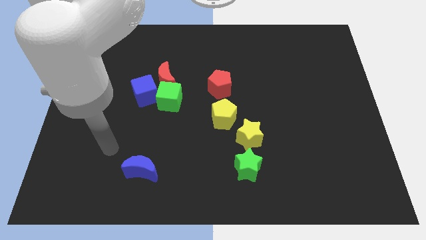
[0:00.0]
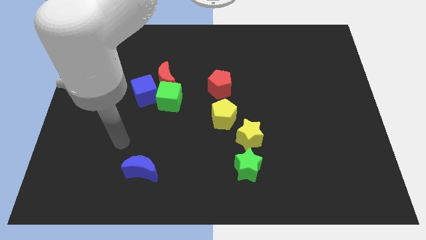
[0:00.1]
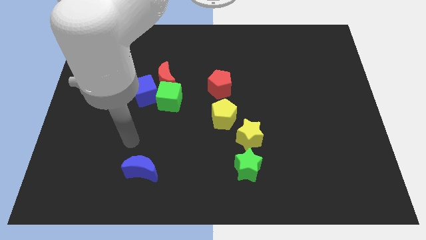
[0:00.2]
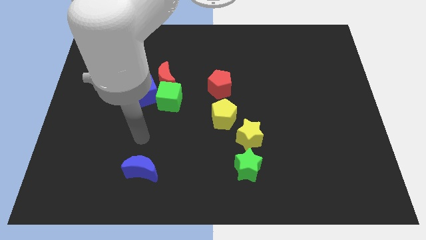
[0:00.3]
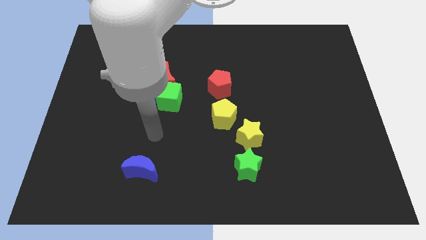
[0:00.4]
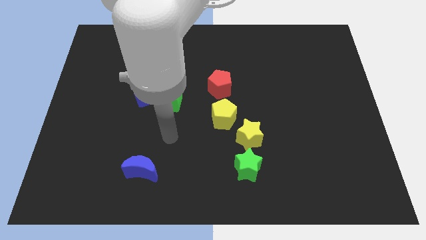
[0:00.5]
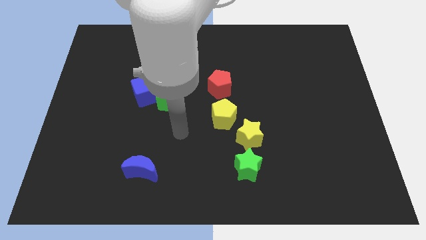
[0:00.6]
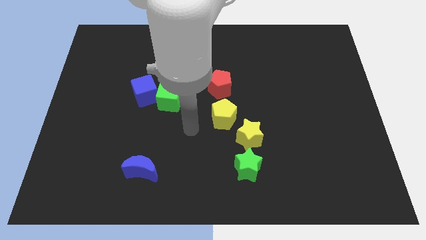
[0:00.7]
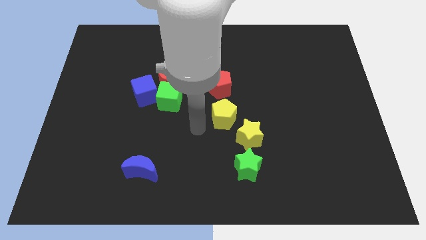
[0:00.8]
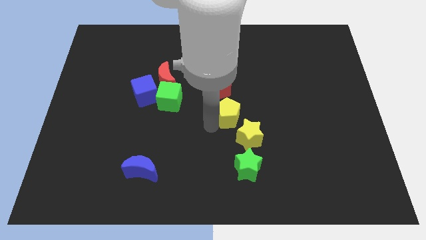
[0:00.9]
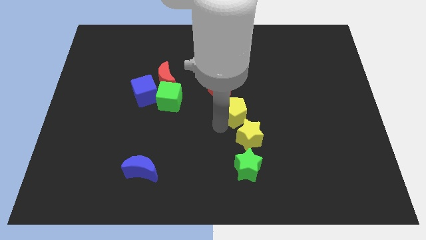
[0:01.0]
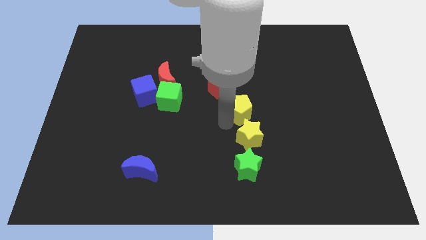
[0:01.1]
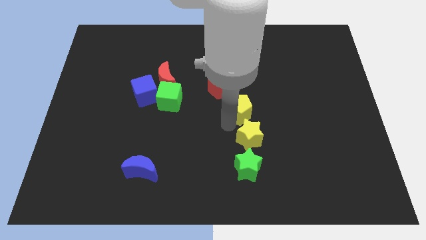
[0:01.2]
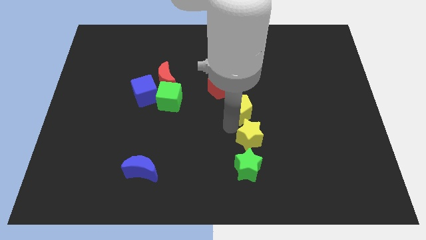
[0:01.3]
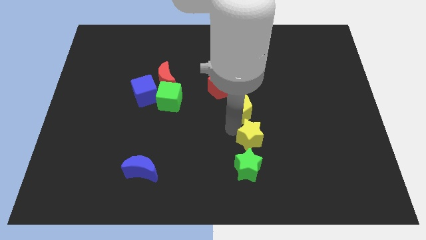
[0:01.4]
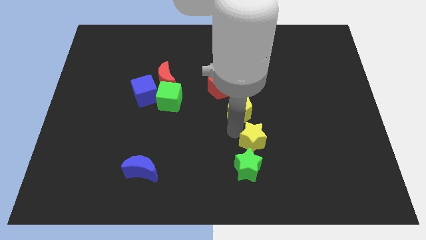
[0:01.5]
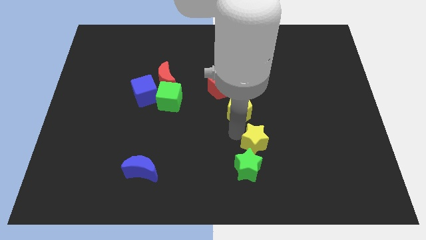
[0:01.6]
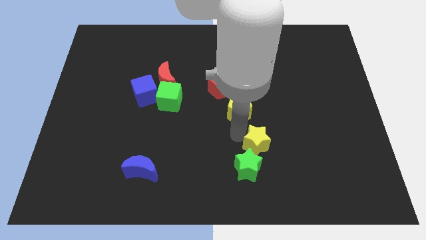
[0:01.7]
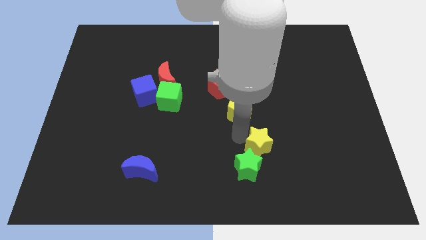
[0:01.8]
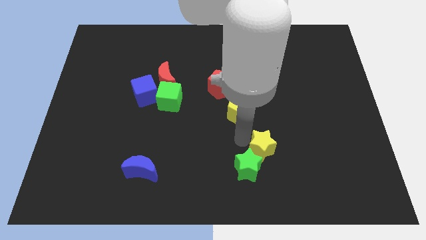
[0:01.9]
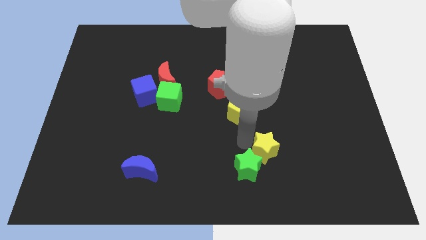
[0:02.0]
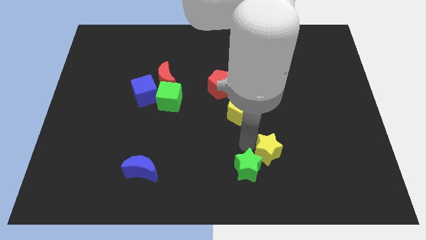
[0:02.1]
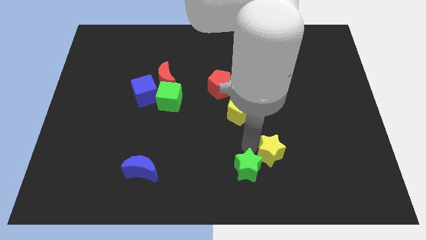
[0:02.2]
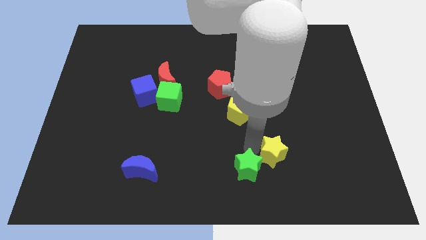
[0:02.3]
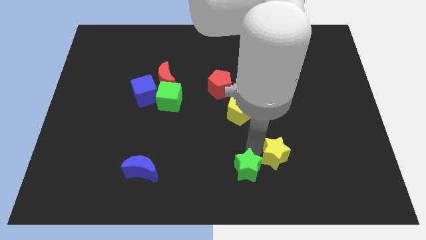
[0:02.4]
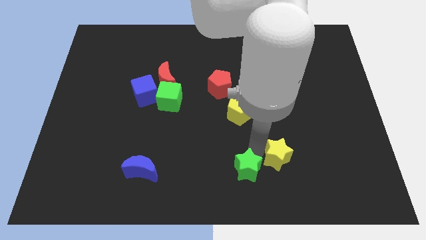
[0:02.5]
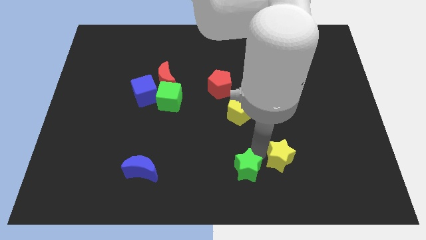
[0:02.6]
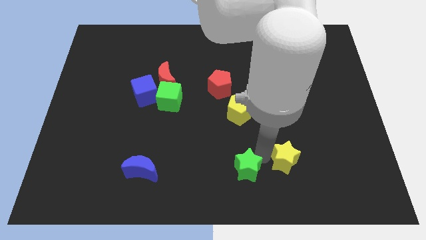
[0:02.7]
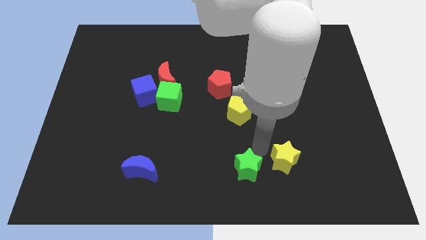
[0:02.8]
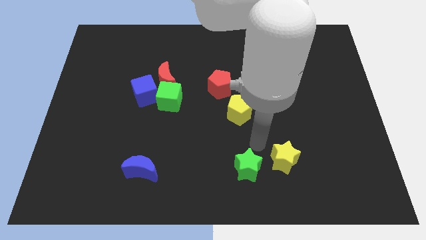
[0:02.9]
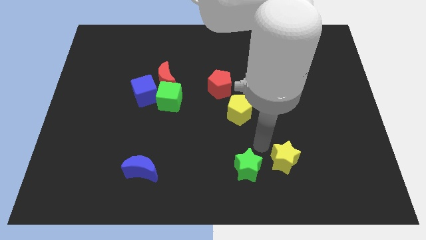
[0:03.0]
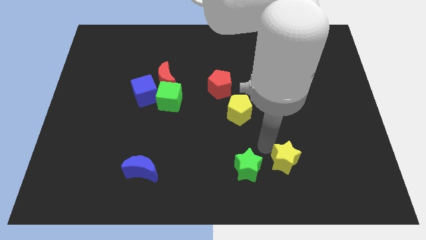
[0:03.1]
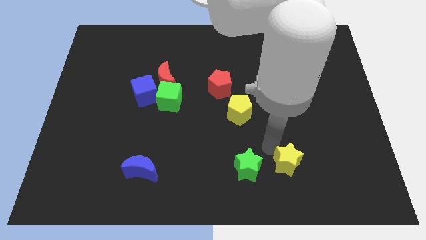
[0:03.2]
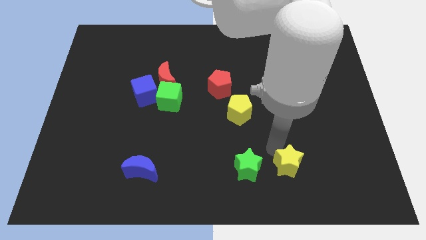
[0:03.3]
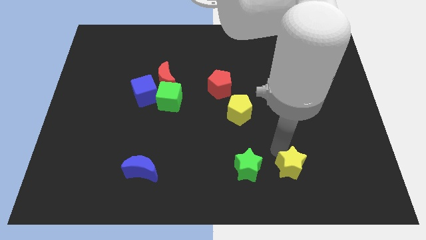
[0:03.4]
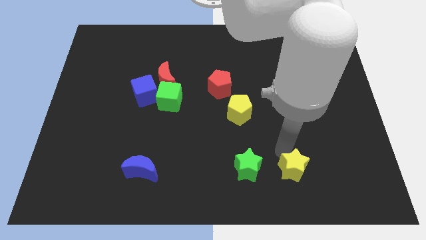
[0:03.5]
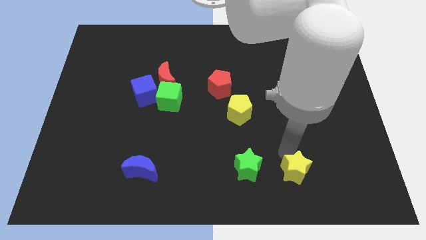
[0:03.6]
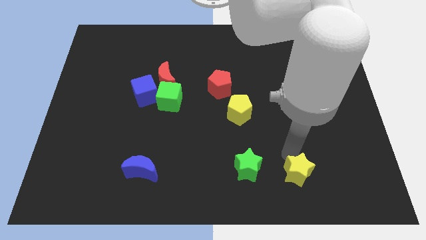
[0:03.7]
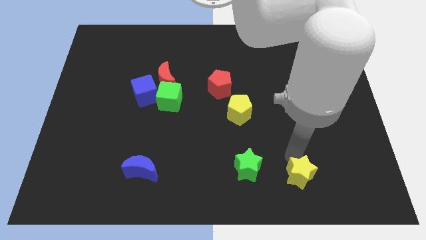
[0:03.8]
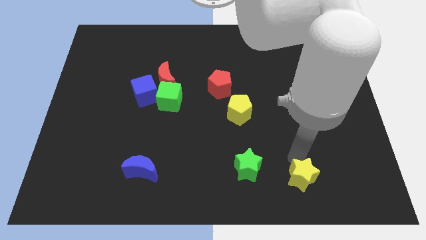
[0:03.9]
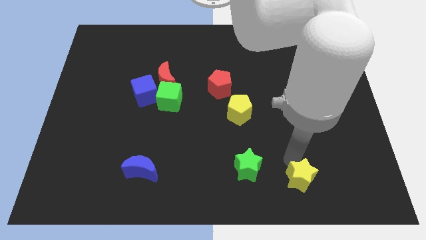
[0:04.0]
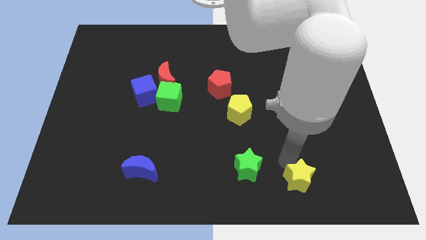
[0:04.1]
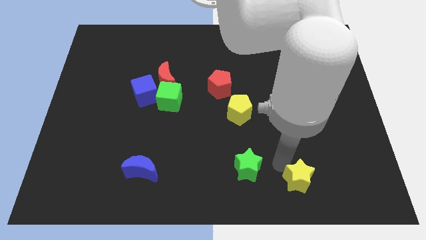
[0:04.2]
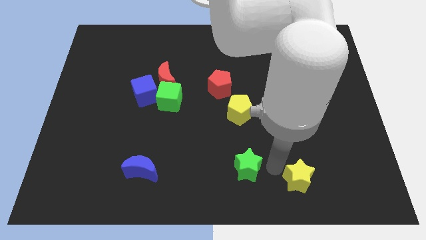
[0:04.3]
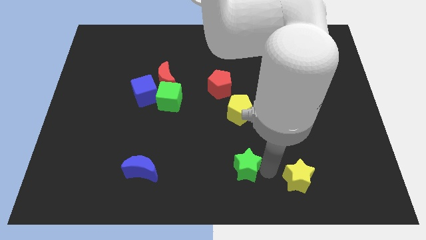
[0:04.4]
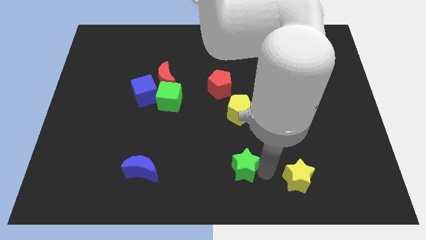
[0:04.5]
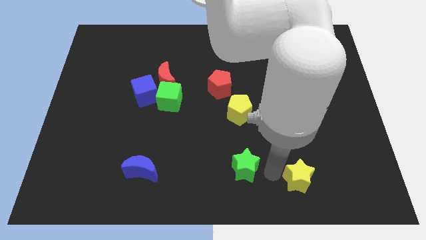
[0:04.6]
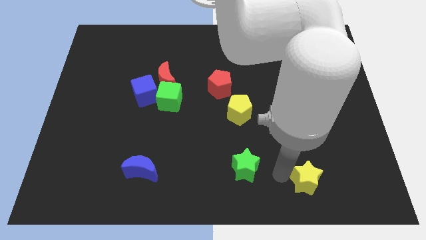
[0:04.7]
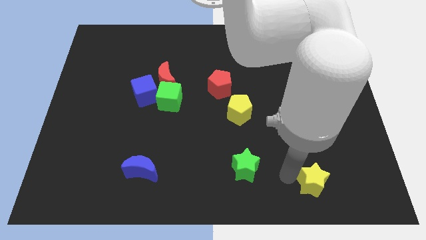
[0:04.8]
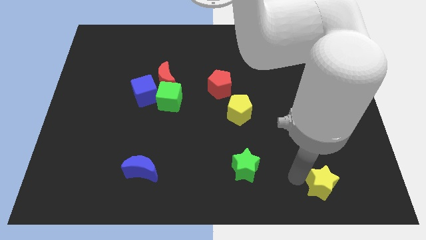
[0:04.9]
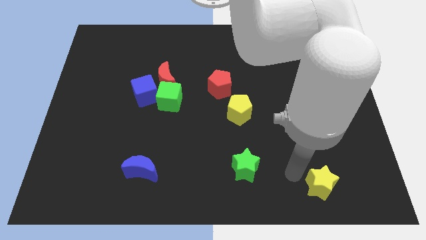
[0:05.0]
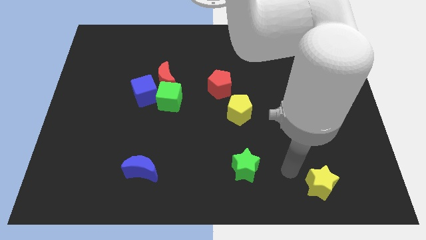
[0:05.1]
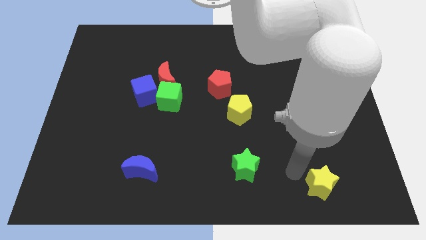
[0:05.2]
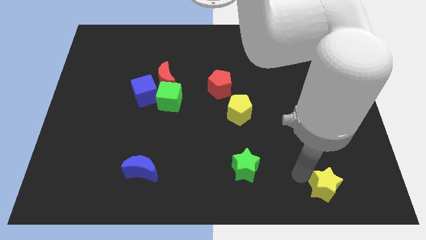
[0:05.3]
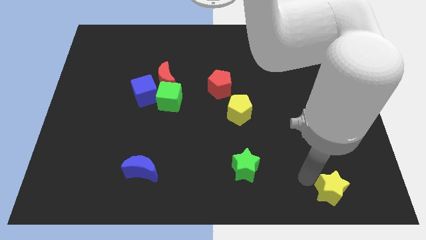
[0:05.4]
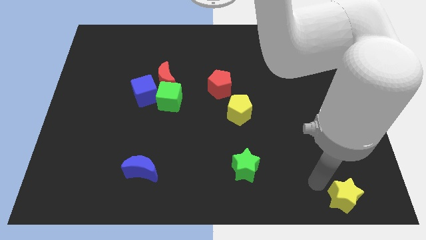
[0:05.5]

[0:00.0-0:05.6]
put the yellow star to the bottom right corner
